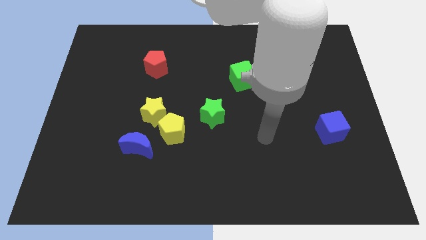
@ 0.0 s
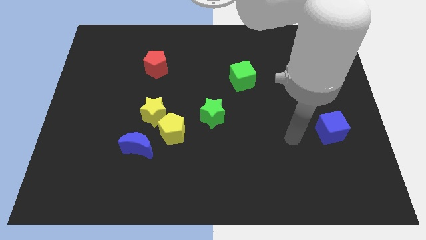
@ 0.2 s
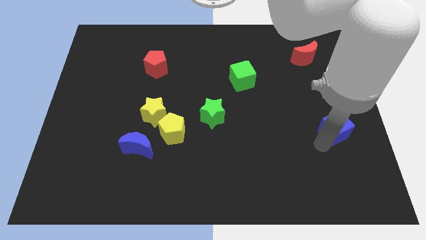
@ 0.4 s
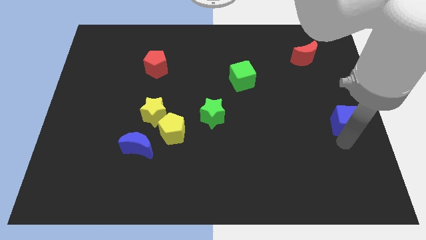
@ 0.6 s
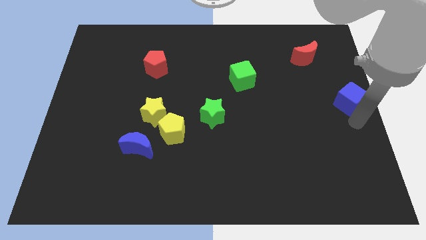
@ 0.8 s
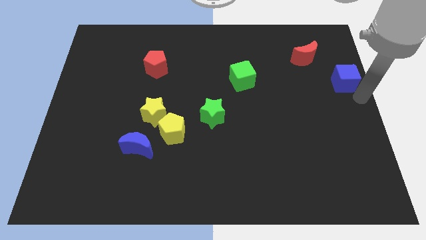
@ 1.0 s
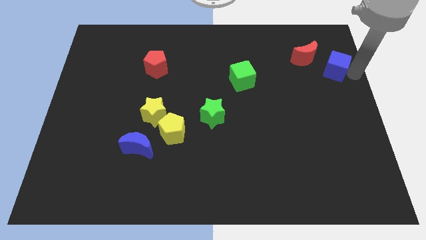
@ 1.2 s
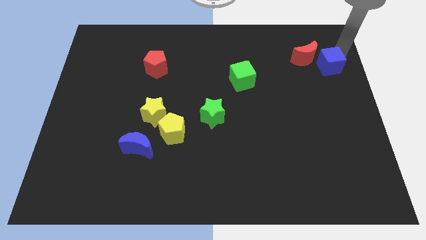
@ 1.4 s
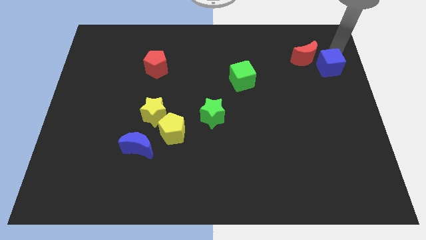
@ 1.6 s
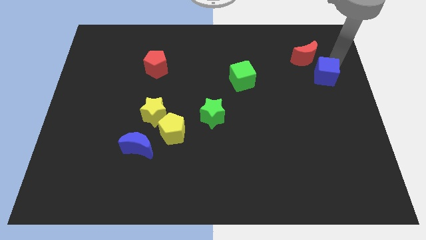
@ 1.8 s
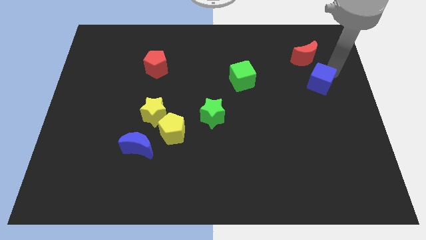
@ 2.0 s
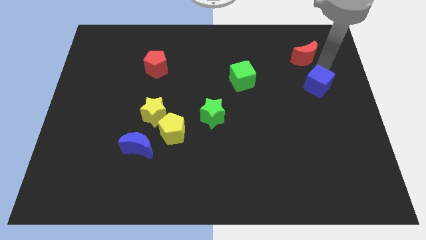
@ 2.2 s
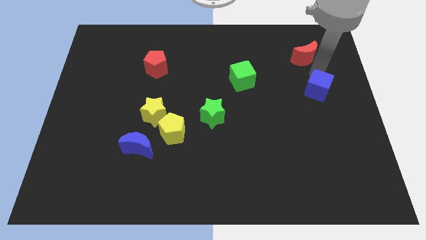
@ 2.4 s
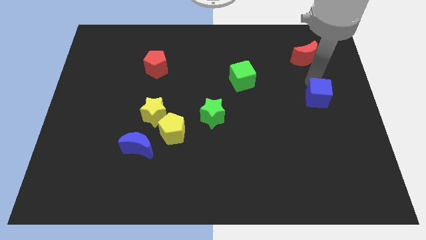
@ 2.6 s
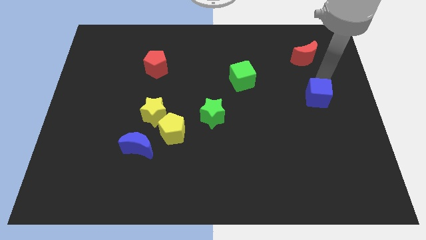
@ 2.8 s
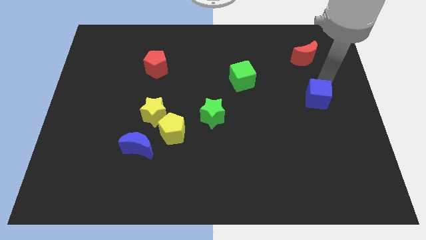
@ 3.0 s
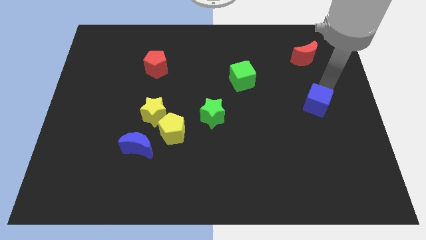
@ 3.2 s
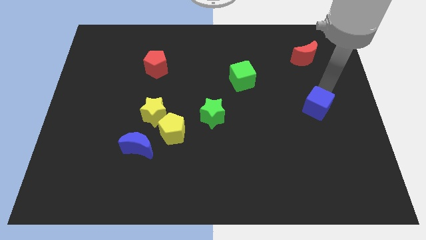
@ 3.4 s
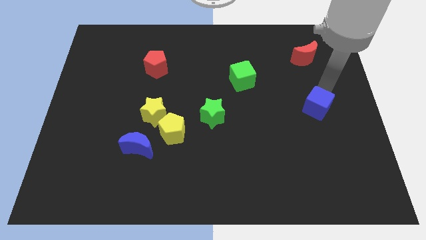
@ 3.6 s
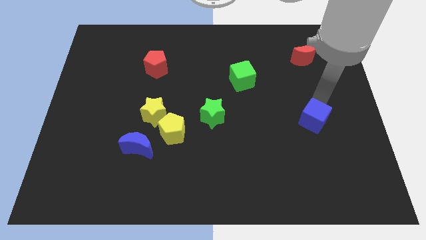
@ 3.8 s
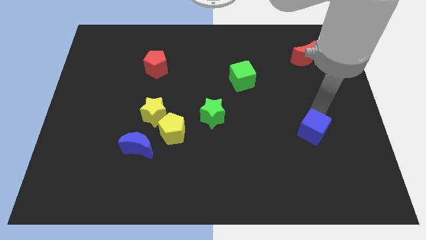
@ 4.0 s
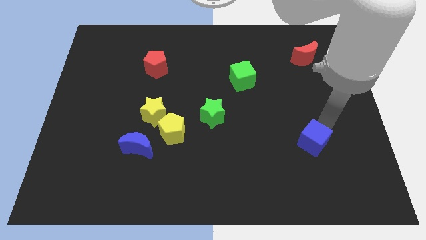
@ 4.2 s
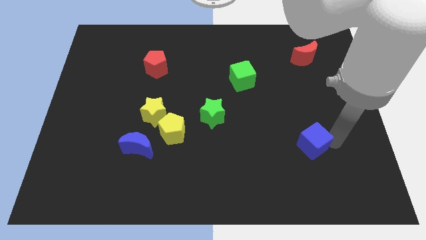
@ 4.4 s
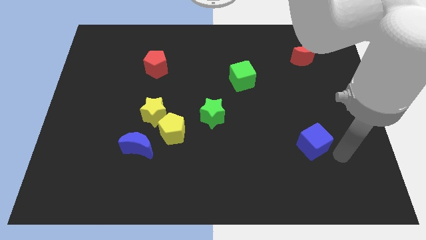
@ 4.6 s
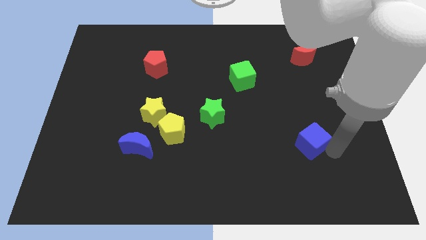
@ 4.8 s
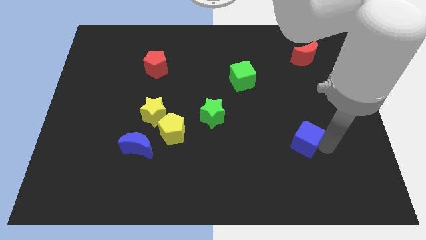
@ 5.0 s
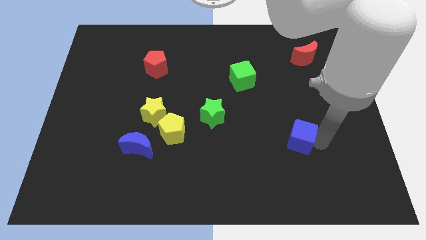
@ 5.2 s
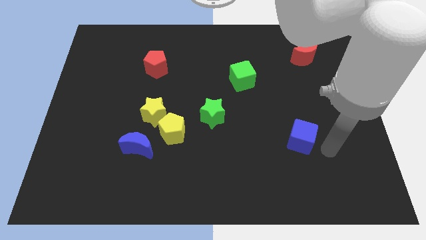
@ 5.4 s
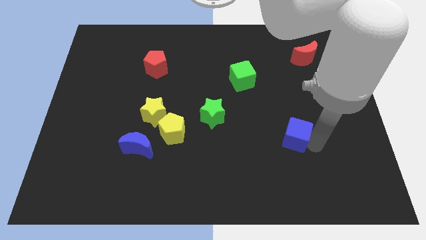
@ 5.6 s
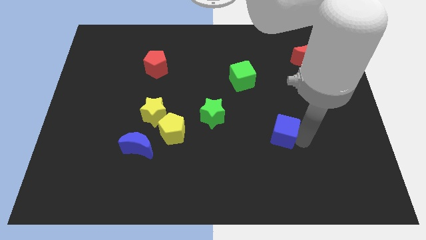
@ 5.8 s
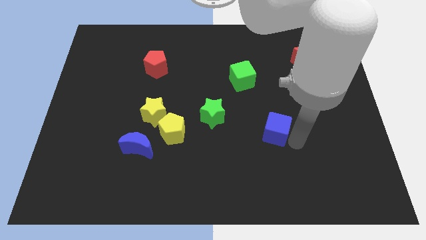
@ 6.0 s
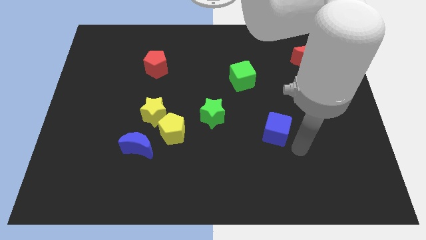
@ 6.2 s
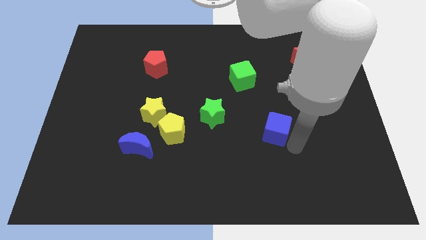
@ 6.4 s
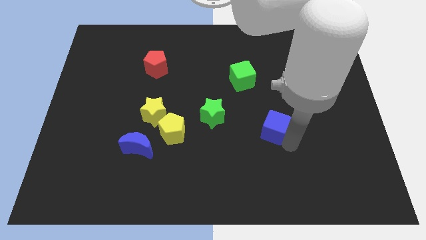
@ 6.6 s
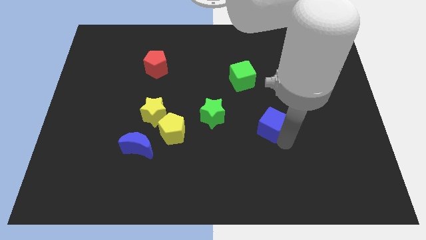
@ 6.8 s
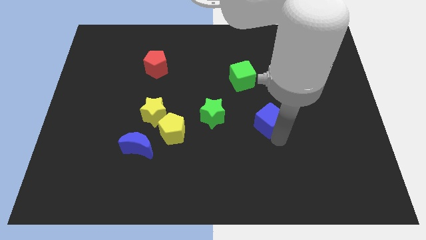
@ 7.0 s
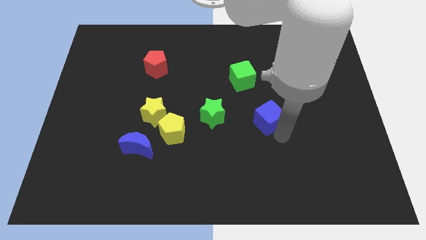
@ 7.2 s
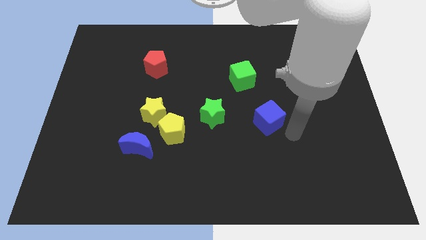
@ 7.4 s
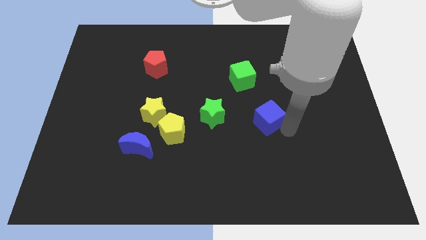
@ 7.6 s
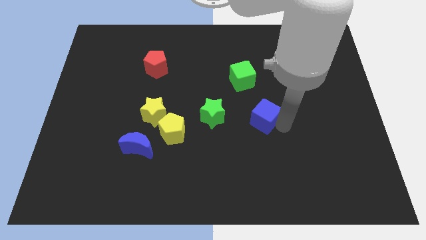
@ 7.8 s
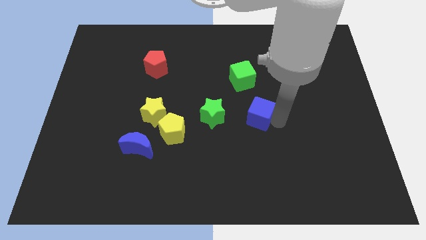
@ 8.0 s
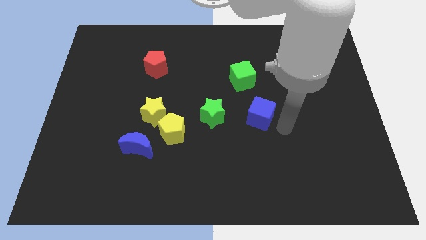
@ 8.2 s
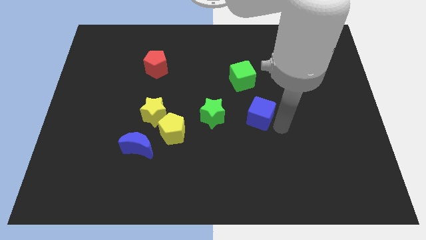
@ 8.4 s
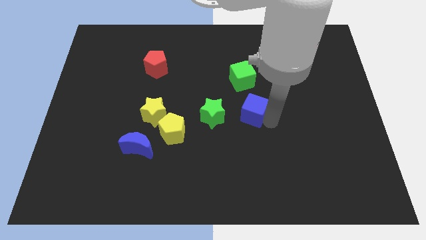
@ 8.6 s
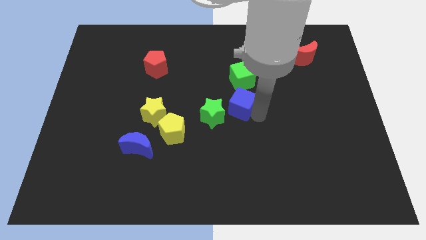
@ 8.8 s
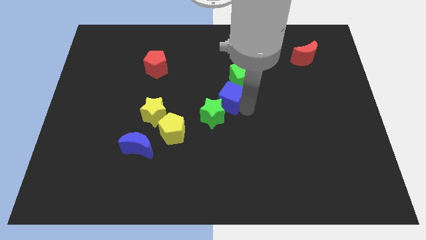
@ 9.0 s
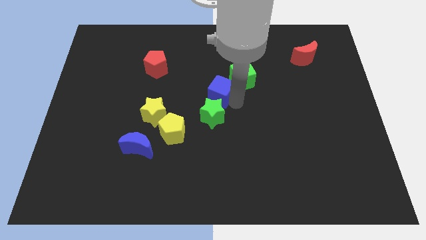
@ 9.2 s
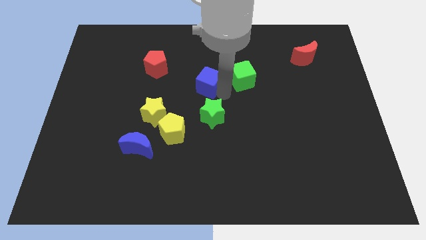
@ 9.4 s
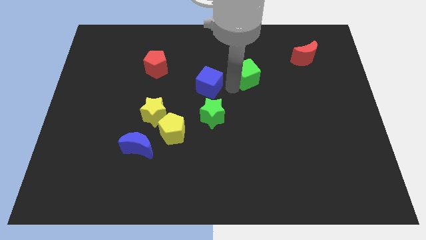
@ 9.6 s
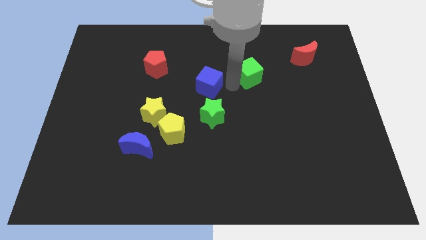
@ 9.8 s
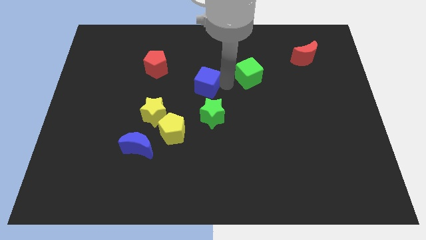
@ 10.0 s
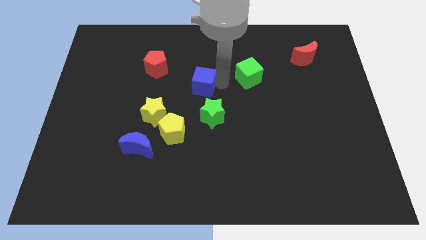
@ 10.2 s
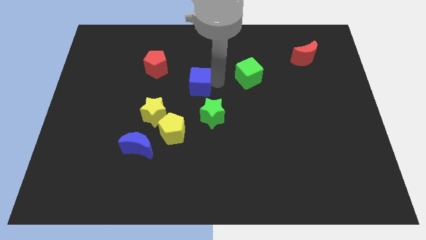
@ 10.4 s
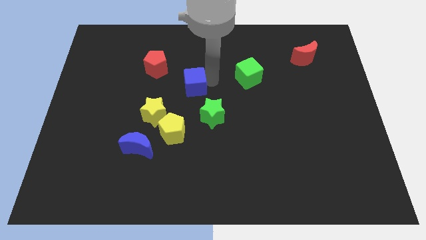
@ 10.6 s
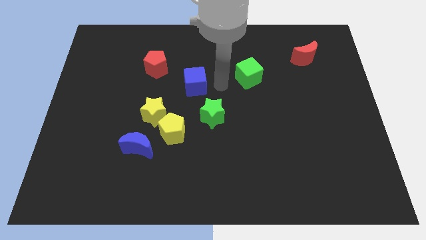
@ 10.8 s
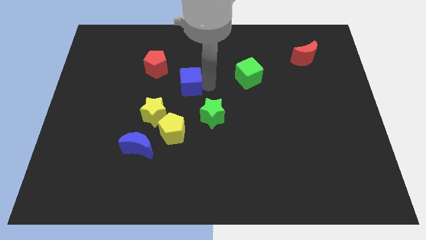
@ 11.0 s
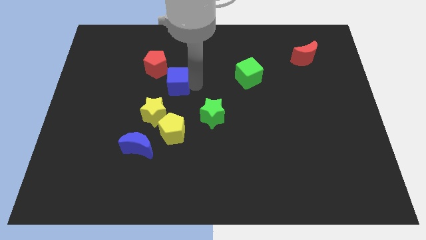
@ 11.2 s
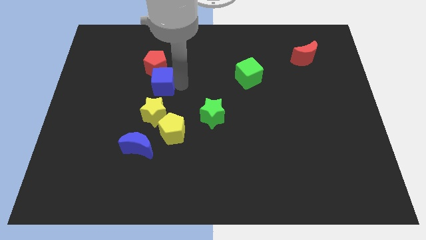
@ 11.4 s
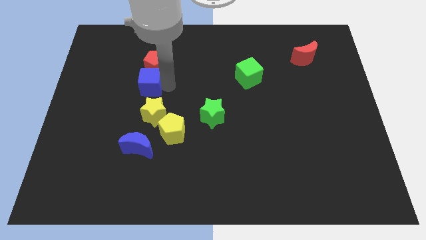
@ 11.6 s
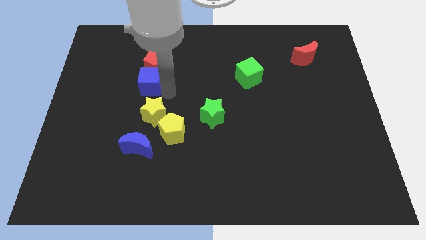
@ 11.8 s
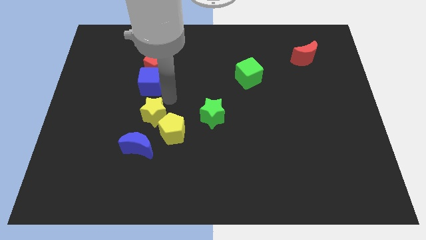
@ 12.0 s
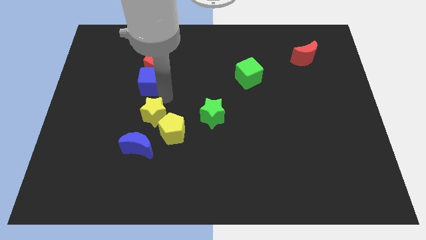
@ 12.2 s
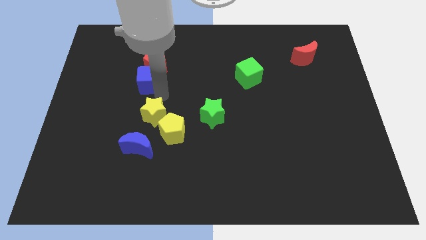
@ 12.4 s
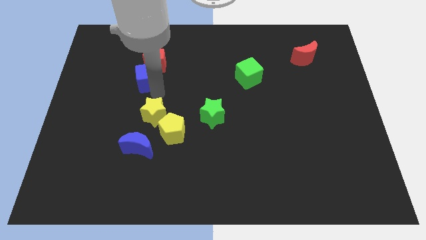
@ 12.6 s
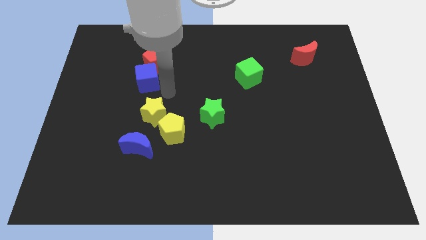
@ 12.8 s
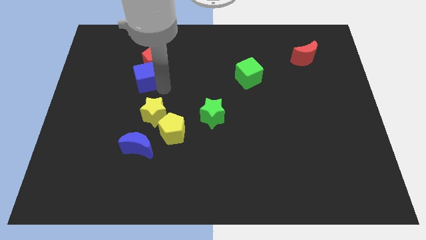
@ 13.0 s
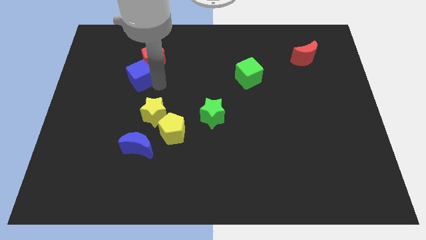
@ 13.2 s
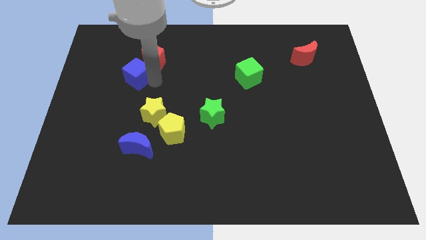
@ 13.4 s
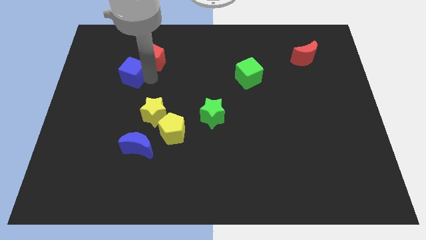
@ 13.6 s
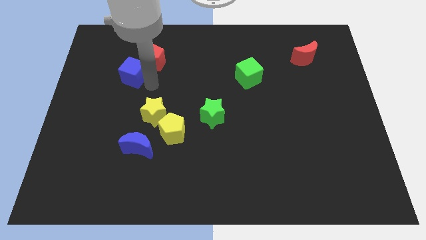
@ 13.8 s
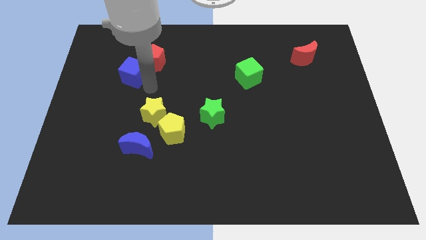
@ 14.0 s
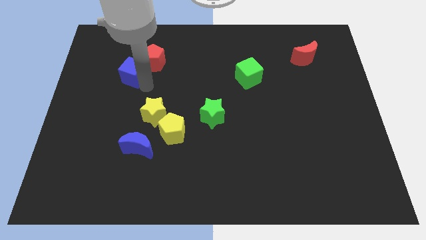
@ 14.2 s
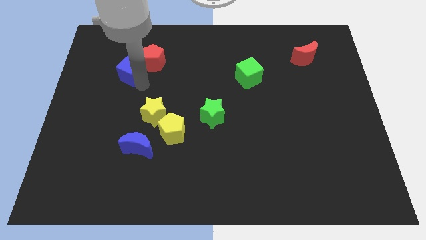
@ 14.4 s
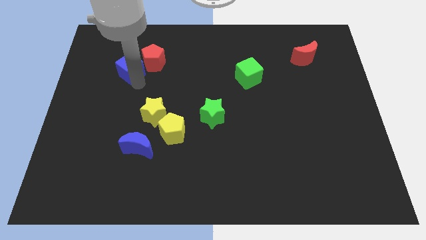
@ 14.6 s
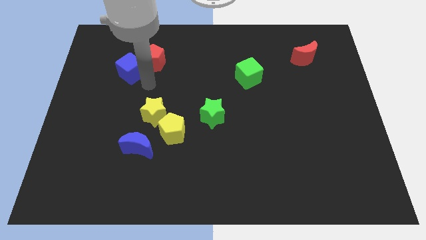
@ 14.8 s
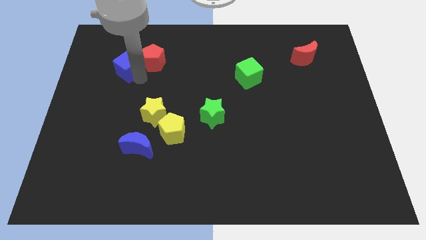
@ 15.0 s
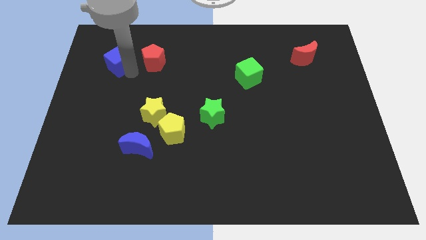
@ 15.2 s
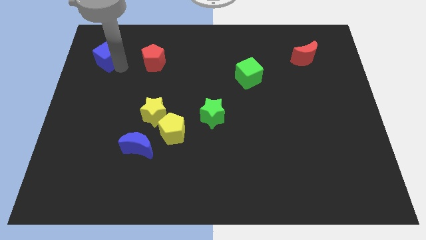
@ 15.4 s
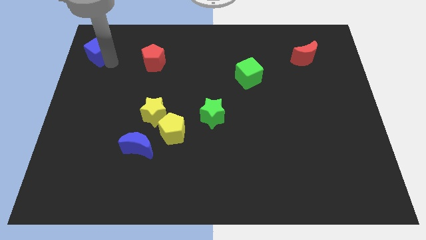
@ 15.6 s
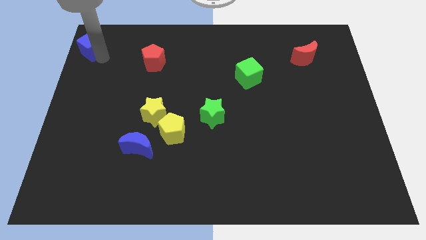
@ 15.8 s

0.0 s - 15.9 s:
put the blue cube to the top left of the board
